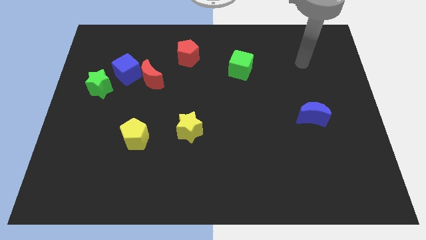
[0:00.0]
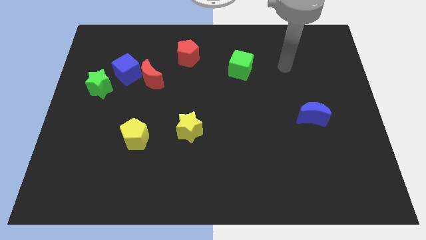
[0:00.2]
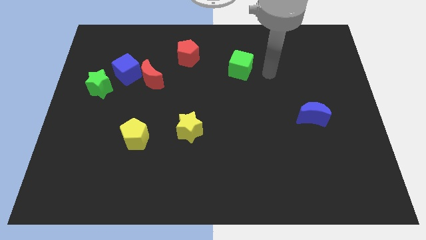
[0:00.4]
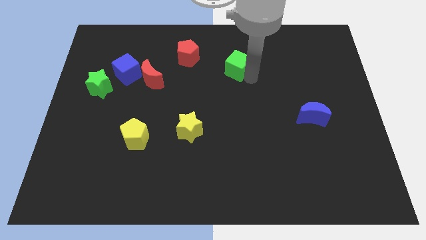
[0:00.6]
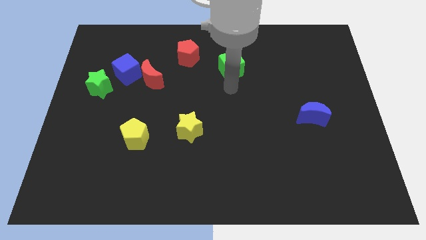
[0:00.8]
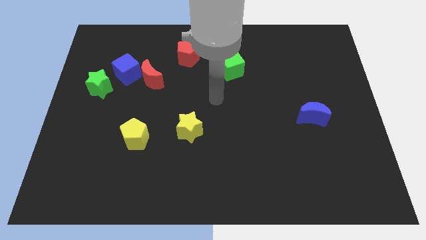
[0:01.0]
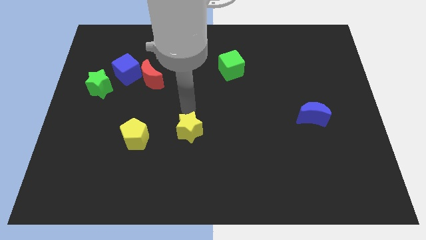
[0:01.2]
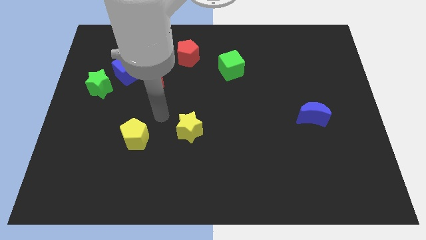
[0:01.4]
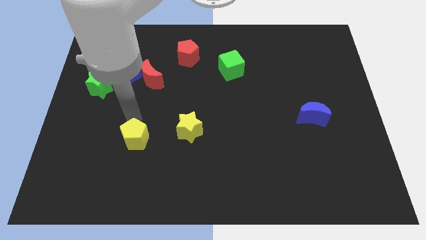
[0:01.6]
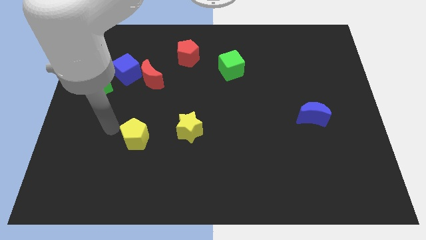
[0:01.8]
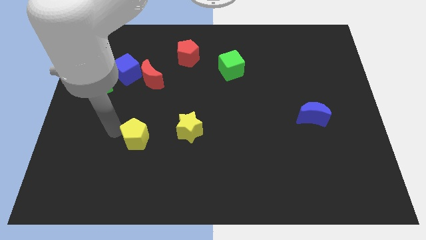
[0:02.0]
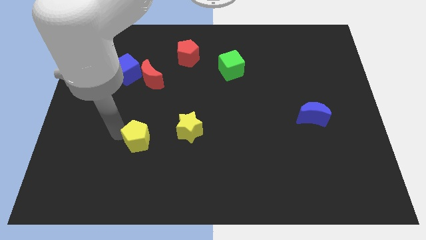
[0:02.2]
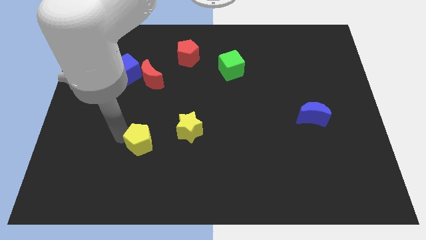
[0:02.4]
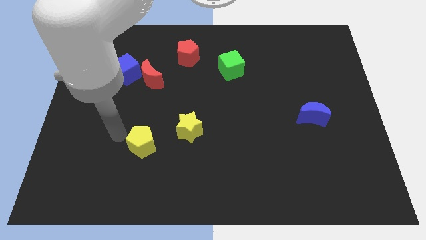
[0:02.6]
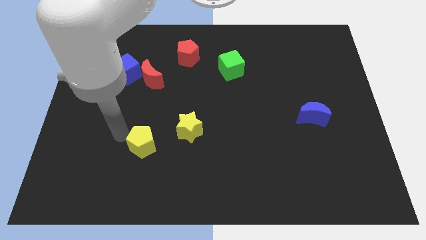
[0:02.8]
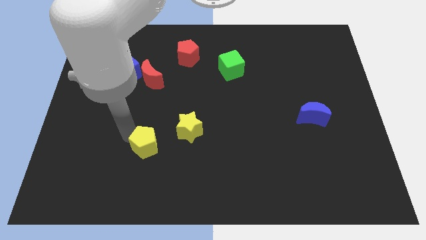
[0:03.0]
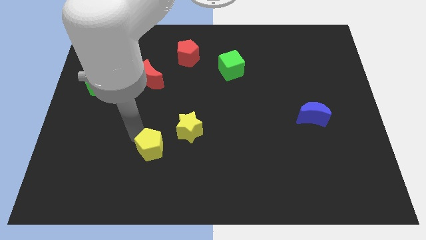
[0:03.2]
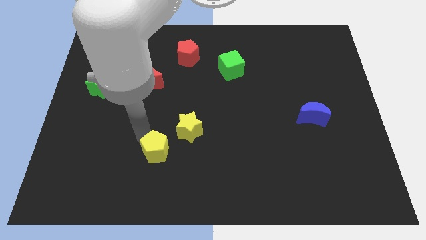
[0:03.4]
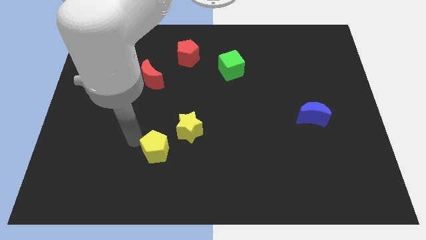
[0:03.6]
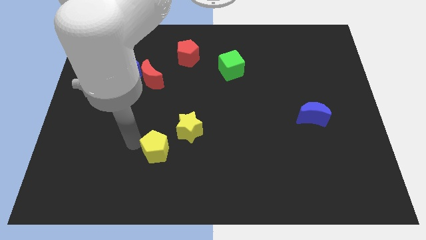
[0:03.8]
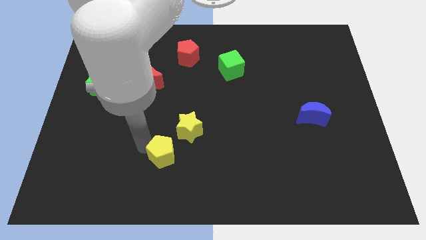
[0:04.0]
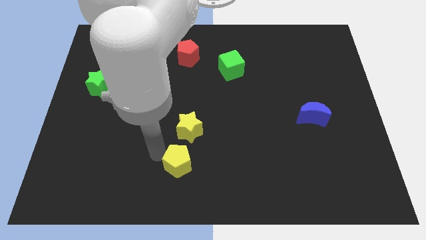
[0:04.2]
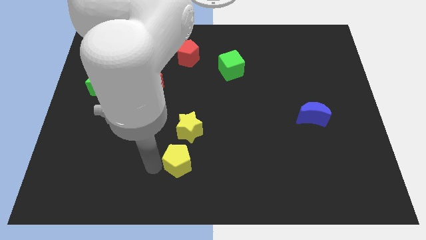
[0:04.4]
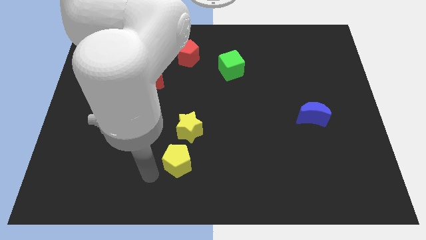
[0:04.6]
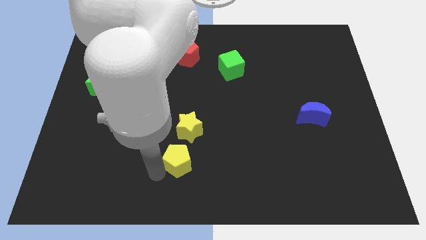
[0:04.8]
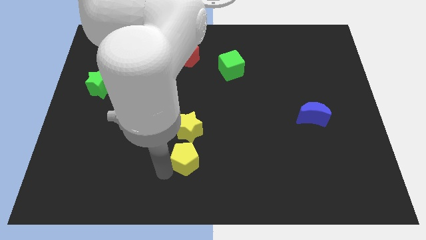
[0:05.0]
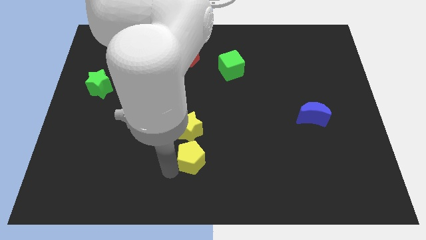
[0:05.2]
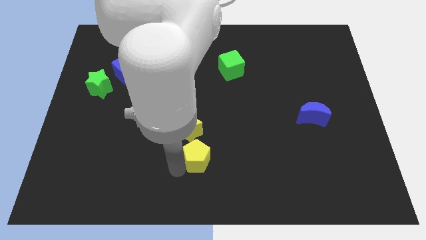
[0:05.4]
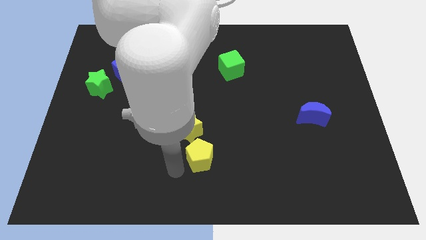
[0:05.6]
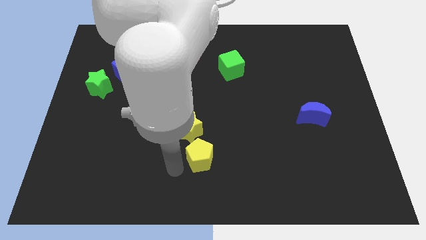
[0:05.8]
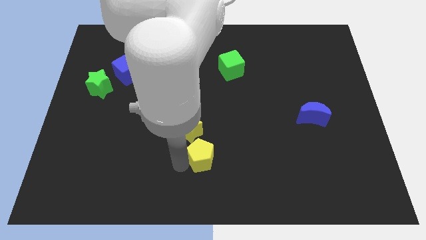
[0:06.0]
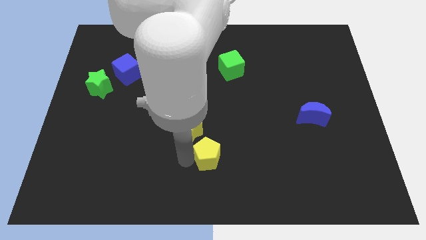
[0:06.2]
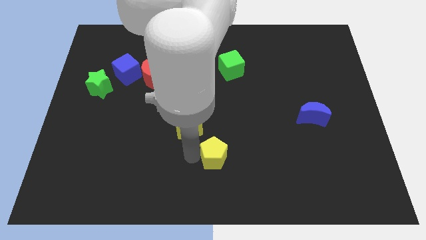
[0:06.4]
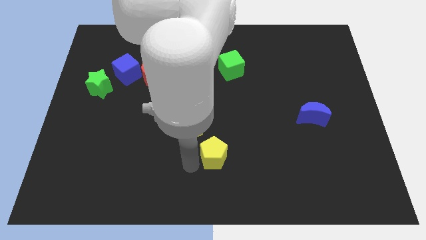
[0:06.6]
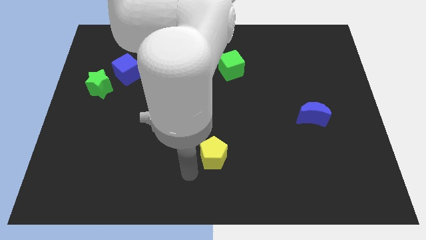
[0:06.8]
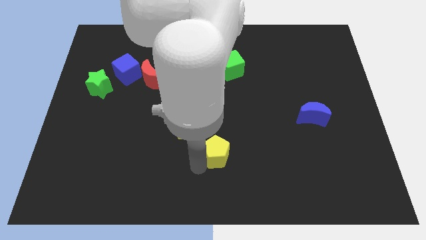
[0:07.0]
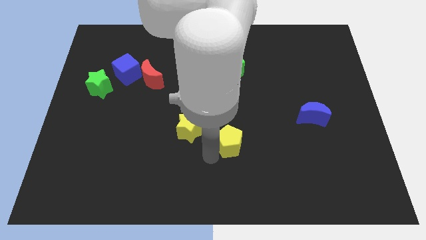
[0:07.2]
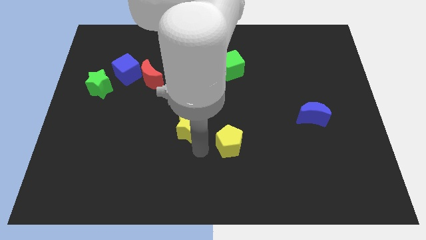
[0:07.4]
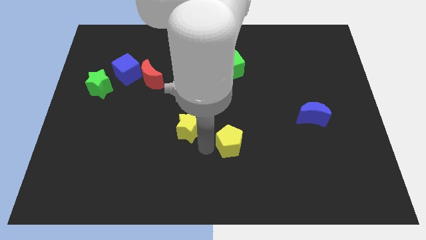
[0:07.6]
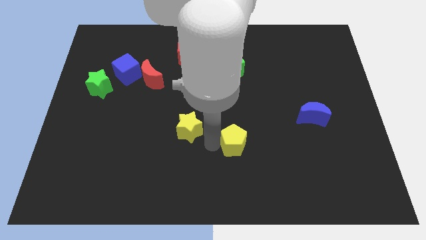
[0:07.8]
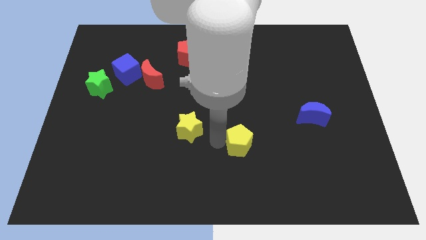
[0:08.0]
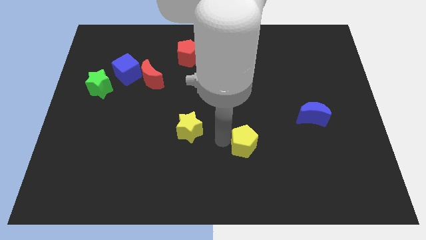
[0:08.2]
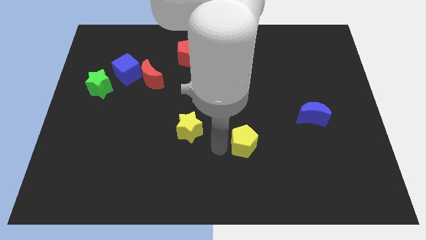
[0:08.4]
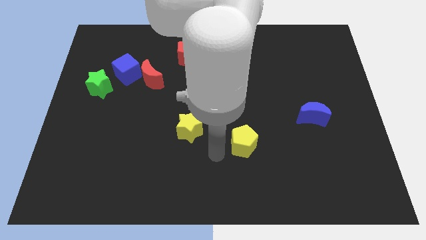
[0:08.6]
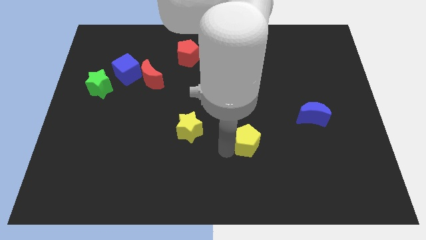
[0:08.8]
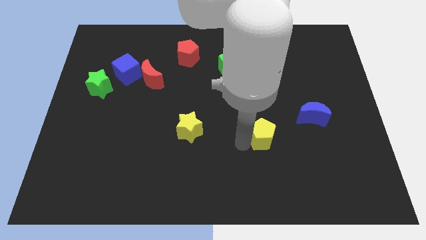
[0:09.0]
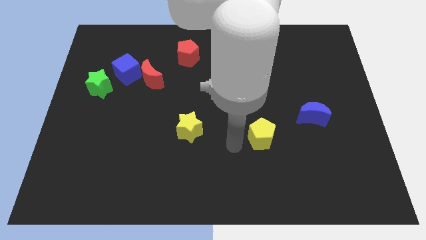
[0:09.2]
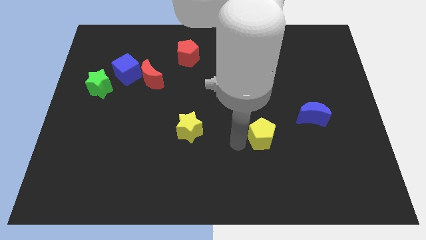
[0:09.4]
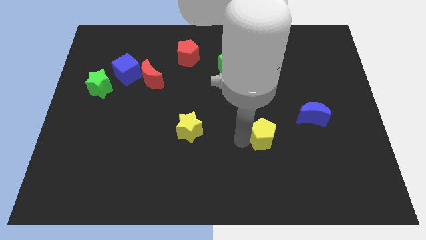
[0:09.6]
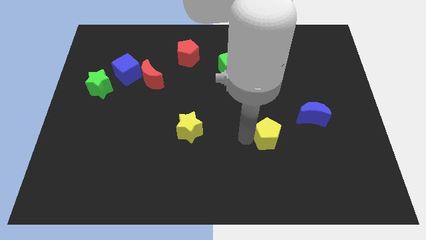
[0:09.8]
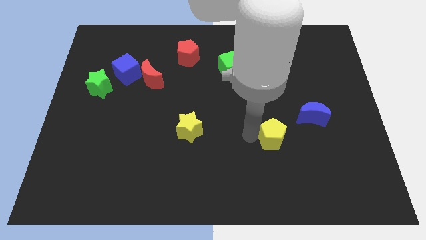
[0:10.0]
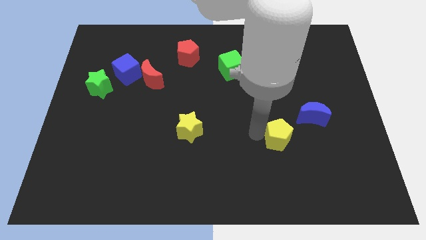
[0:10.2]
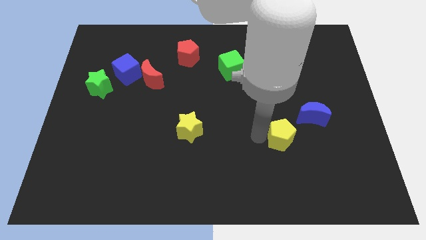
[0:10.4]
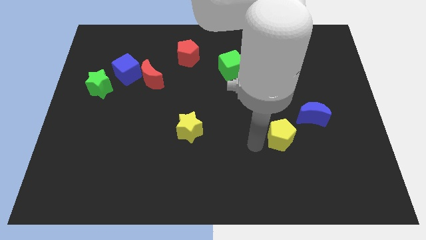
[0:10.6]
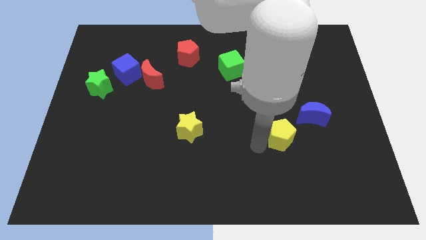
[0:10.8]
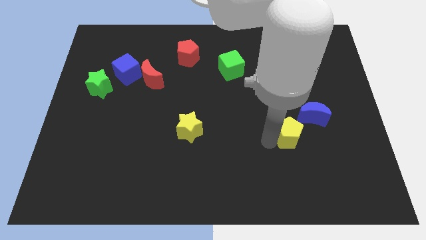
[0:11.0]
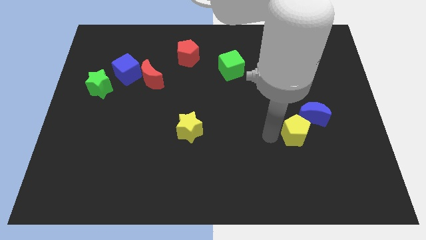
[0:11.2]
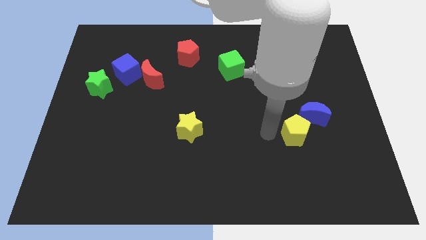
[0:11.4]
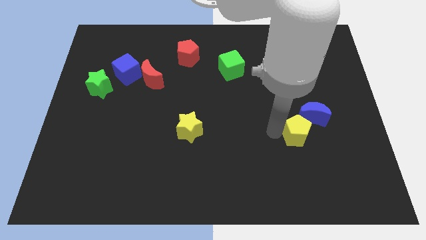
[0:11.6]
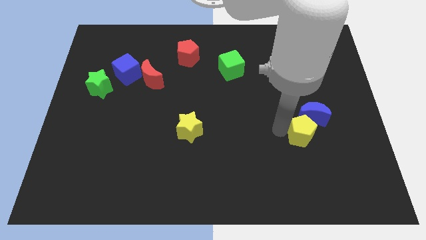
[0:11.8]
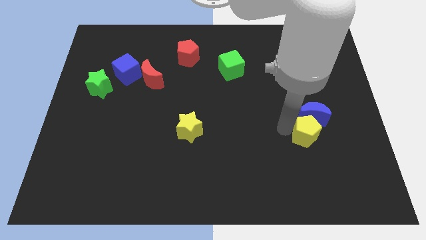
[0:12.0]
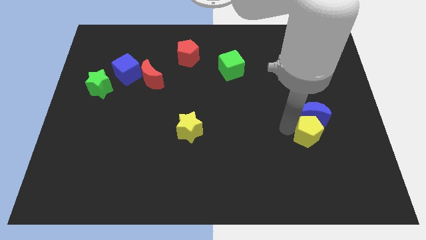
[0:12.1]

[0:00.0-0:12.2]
slide the yellow pentagon to the bottom right side of the blue moon
